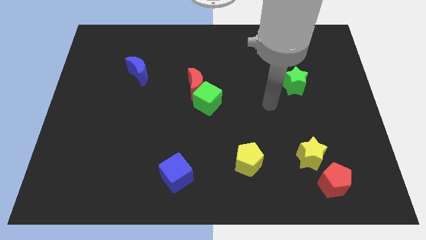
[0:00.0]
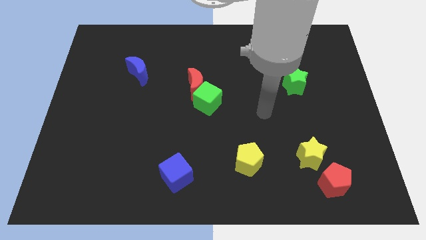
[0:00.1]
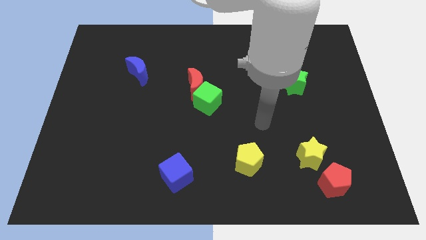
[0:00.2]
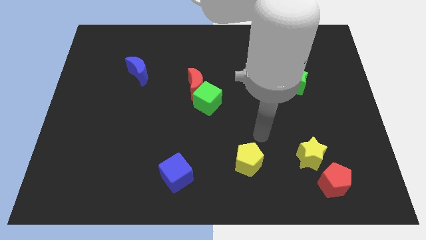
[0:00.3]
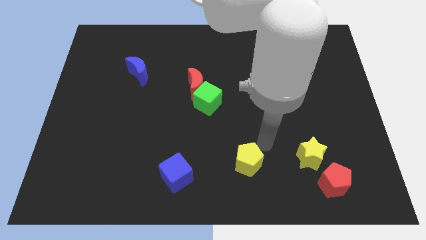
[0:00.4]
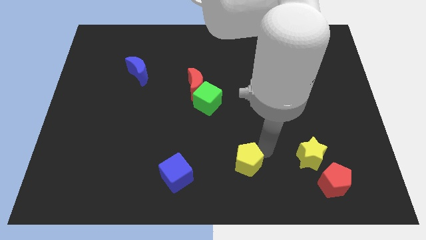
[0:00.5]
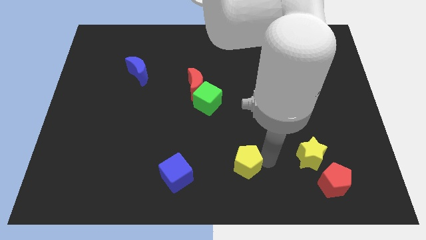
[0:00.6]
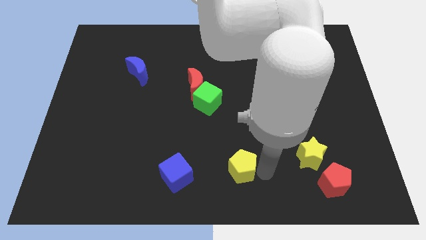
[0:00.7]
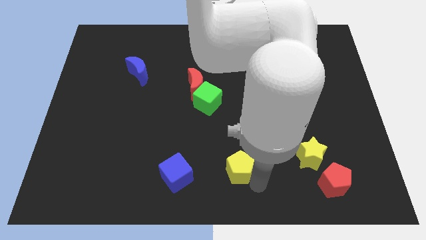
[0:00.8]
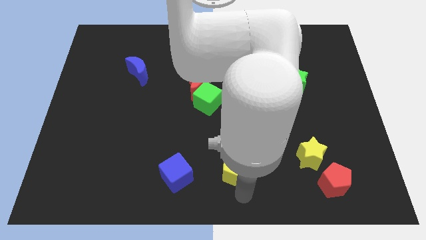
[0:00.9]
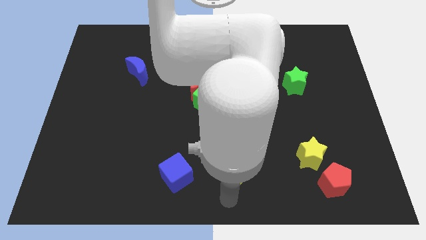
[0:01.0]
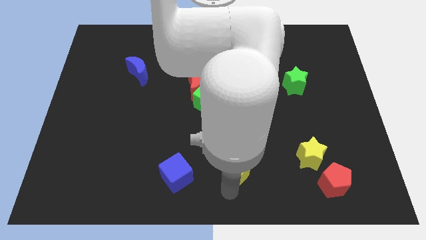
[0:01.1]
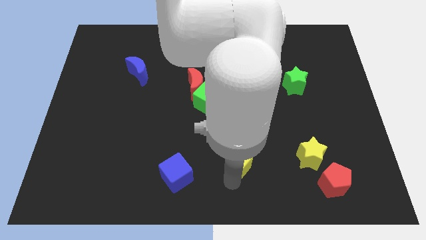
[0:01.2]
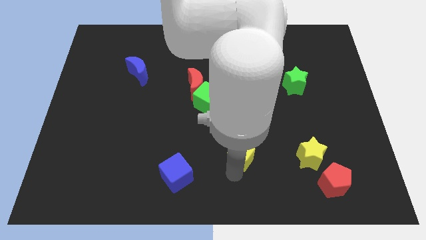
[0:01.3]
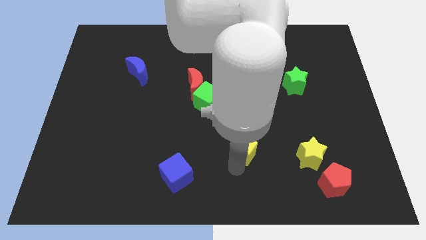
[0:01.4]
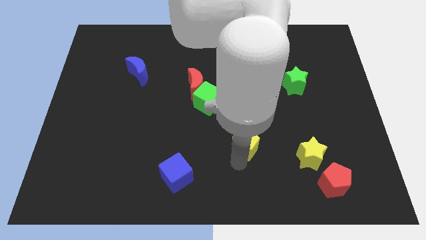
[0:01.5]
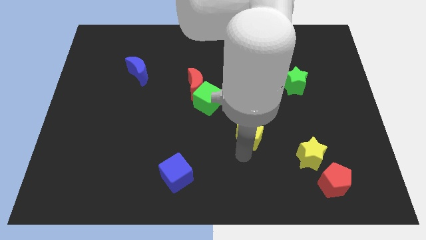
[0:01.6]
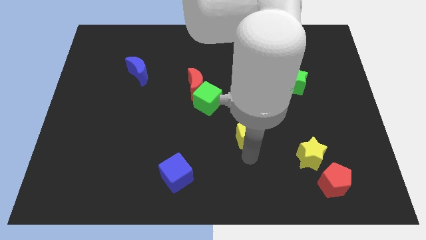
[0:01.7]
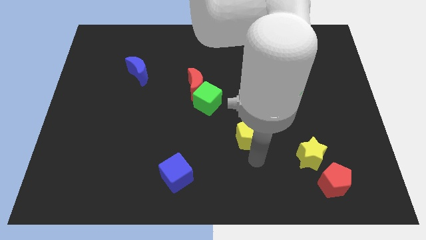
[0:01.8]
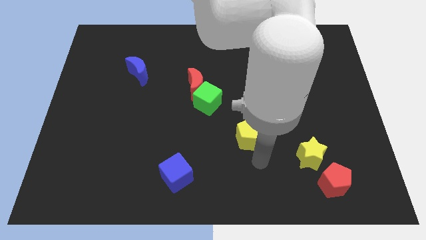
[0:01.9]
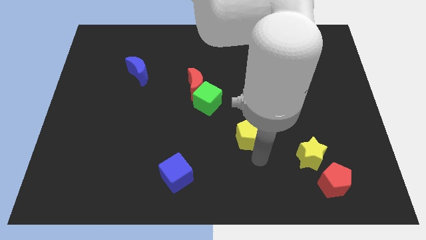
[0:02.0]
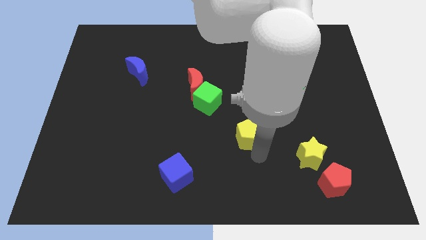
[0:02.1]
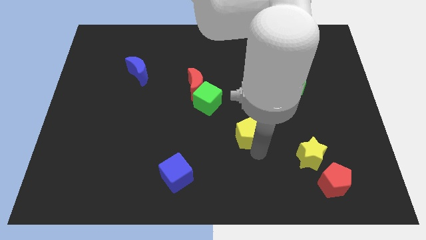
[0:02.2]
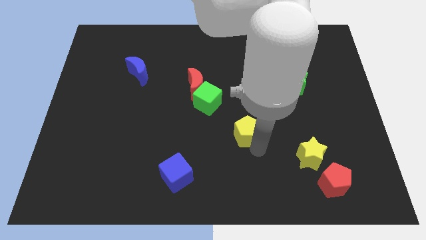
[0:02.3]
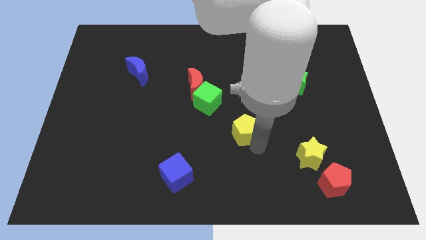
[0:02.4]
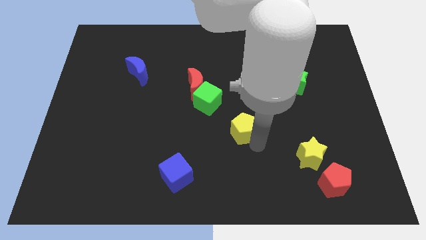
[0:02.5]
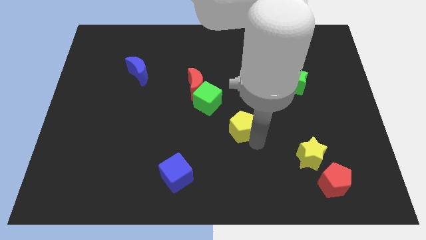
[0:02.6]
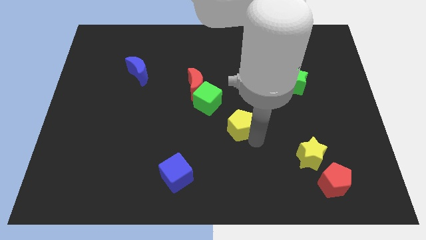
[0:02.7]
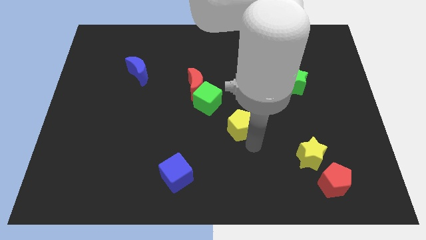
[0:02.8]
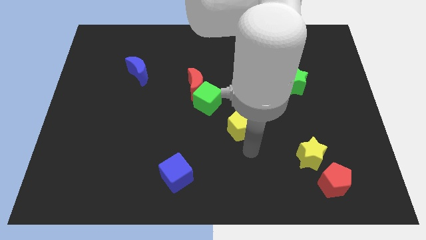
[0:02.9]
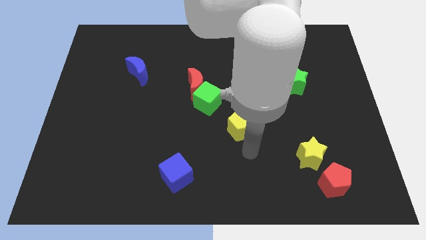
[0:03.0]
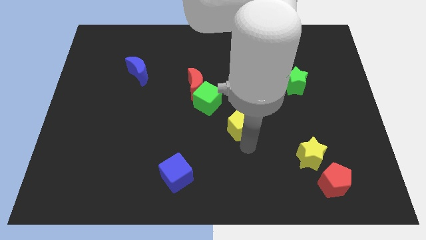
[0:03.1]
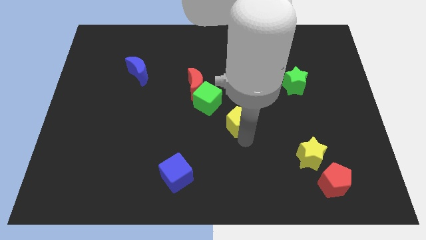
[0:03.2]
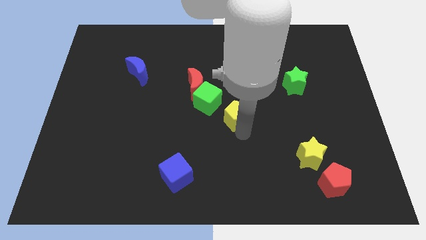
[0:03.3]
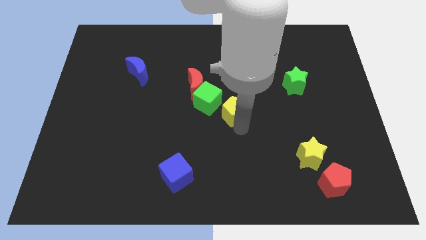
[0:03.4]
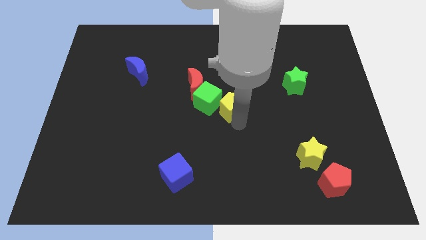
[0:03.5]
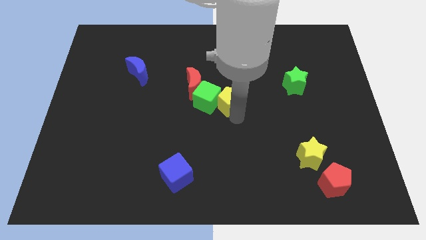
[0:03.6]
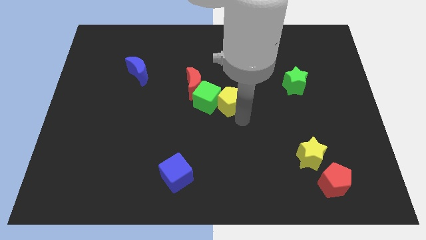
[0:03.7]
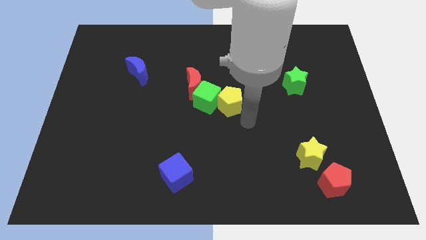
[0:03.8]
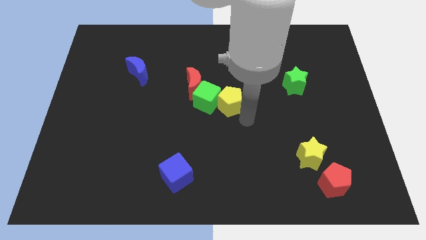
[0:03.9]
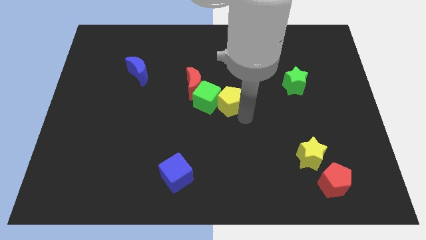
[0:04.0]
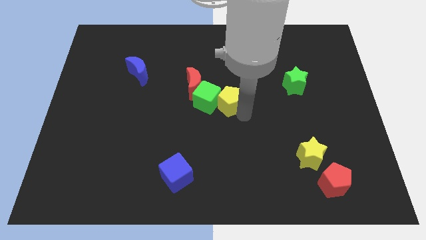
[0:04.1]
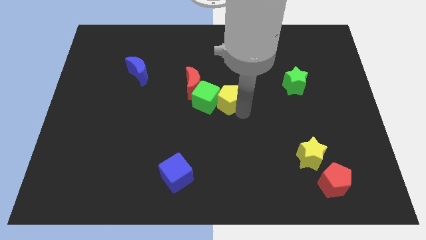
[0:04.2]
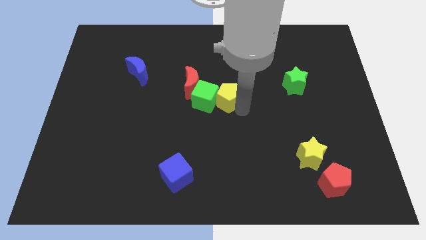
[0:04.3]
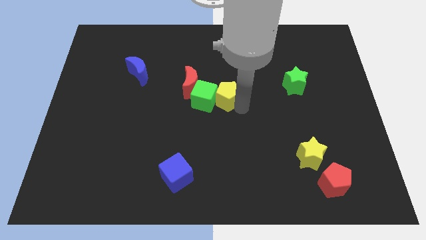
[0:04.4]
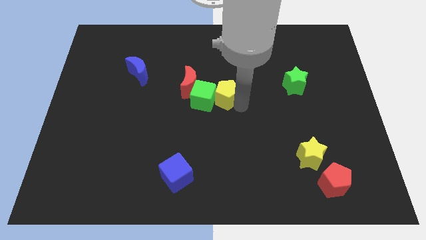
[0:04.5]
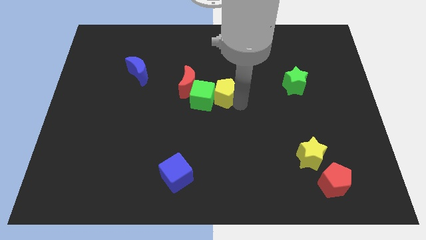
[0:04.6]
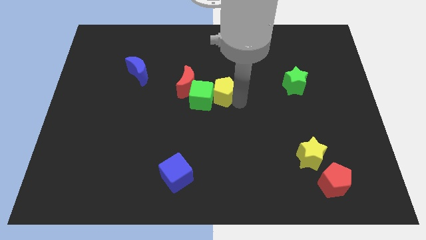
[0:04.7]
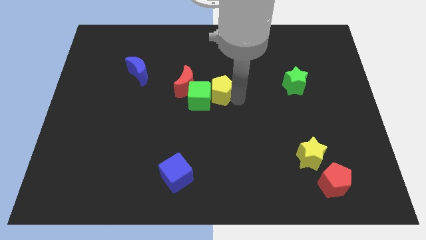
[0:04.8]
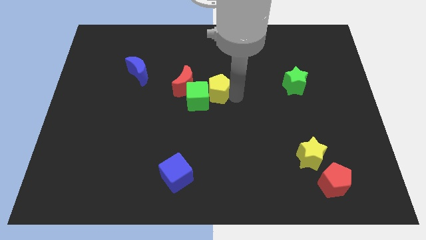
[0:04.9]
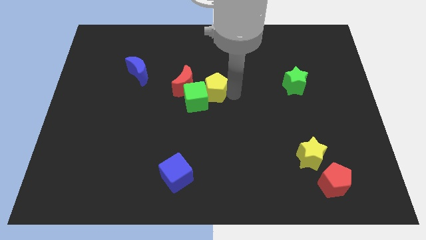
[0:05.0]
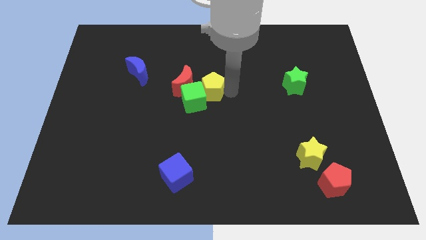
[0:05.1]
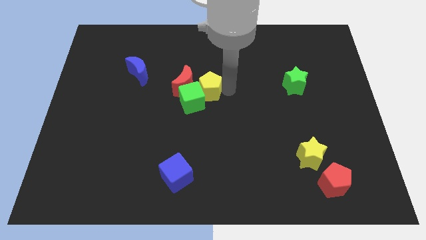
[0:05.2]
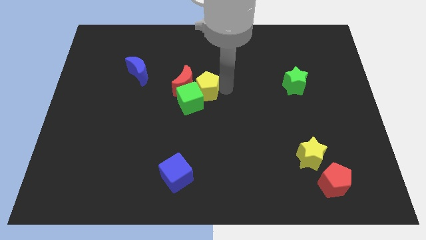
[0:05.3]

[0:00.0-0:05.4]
move the yellow pentagon close to the red moon

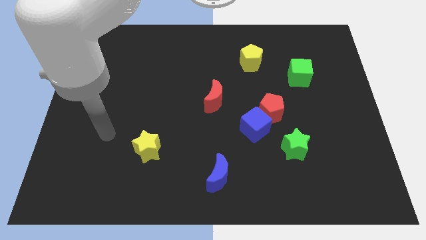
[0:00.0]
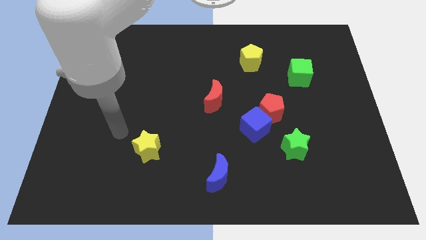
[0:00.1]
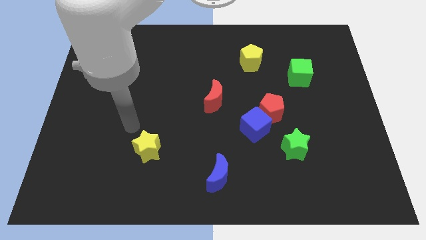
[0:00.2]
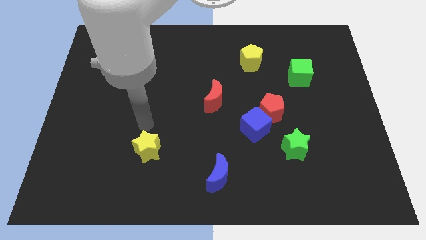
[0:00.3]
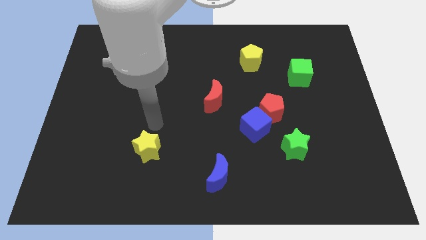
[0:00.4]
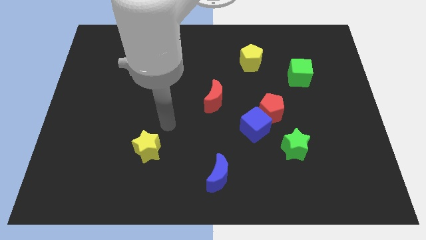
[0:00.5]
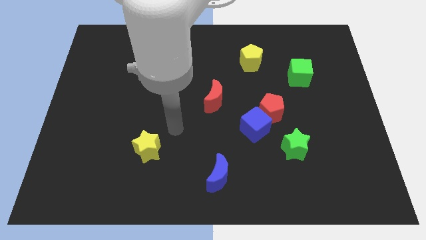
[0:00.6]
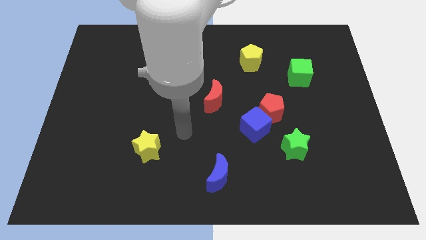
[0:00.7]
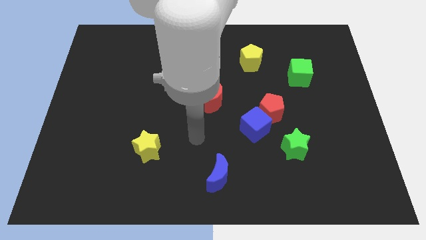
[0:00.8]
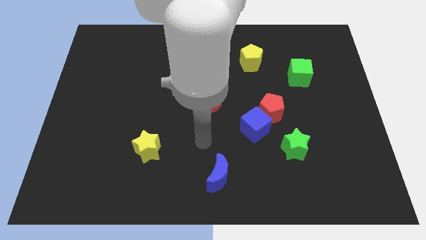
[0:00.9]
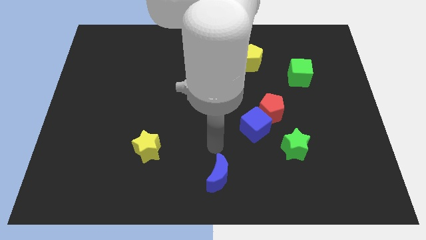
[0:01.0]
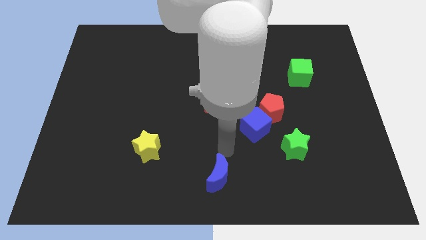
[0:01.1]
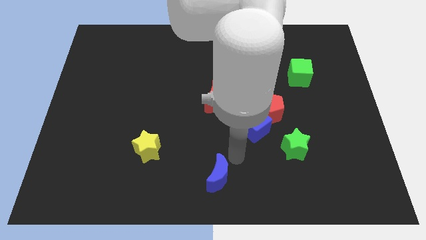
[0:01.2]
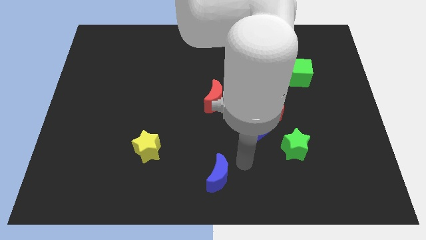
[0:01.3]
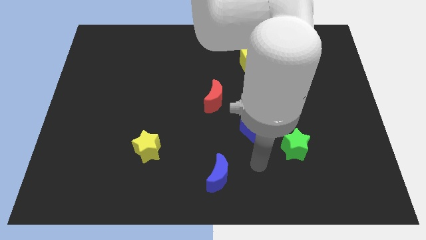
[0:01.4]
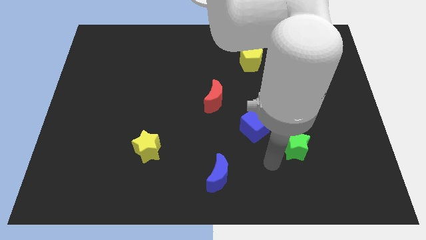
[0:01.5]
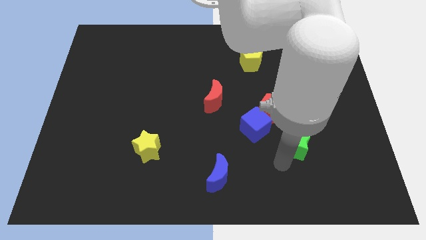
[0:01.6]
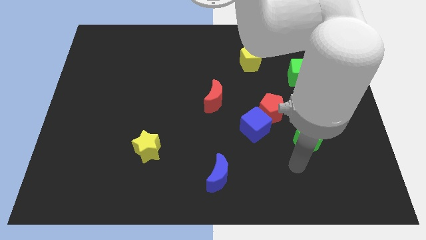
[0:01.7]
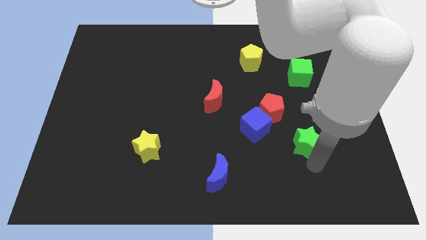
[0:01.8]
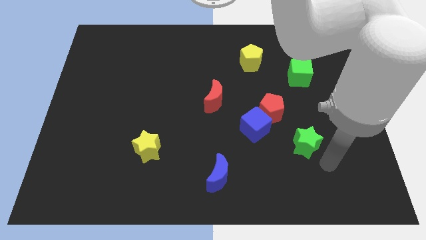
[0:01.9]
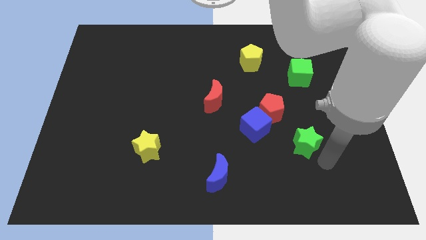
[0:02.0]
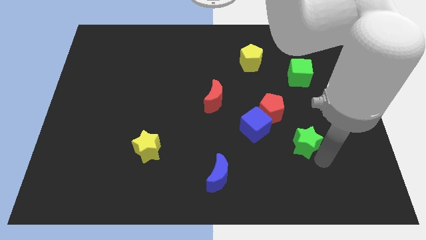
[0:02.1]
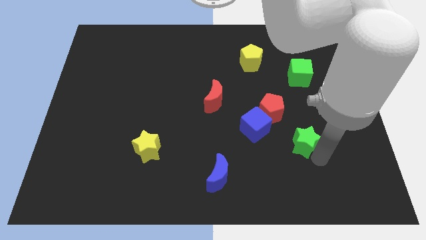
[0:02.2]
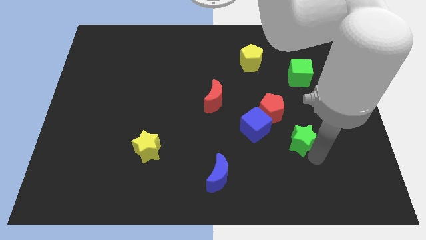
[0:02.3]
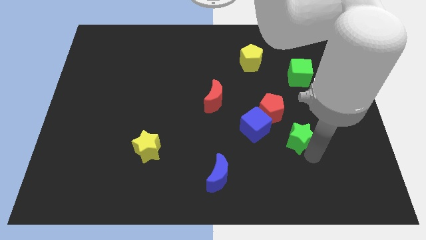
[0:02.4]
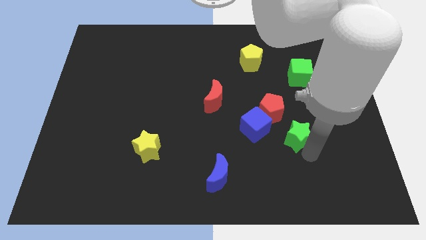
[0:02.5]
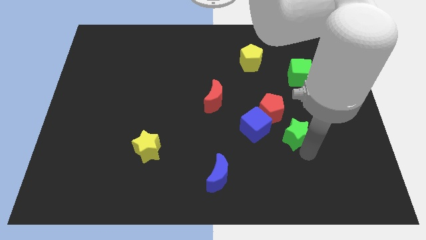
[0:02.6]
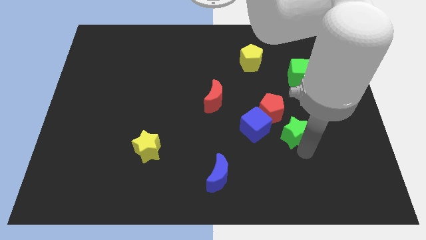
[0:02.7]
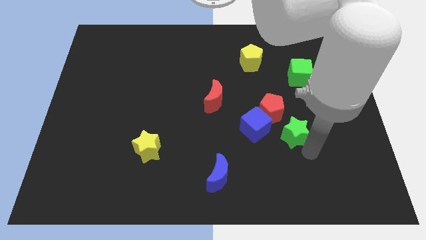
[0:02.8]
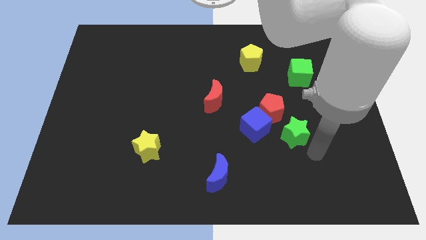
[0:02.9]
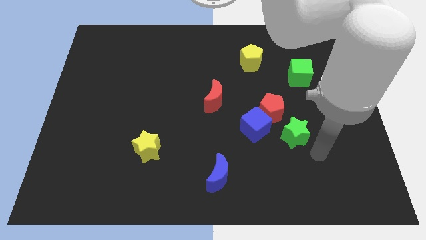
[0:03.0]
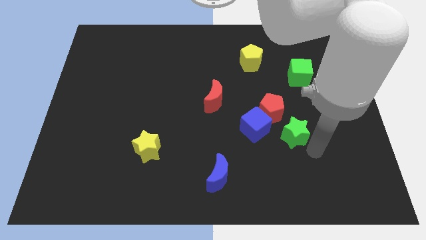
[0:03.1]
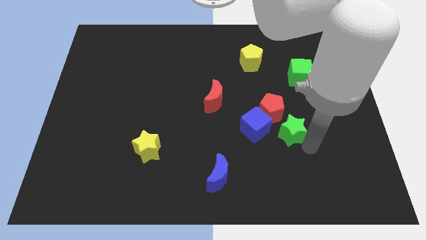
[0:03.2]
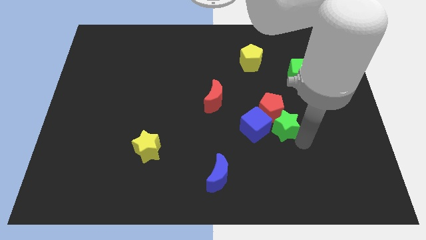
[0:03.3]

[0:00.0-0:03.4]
put the green star close to the red pentagon
